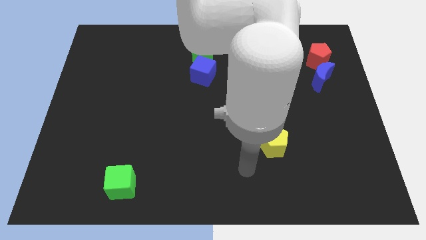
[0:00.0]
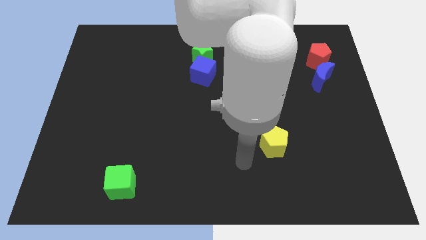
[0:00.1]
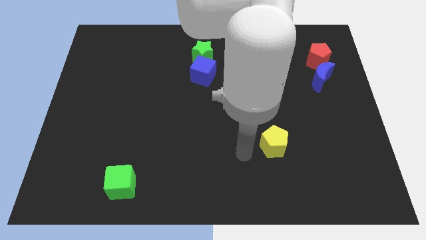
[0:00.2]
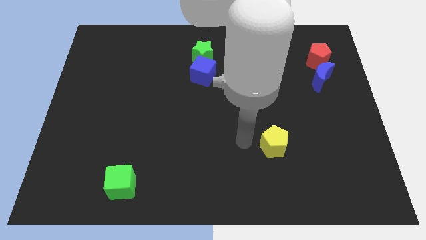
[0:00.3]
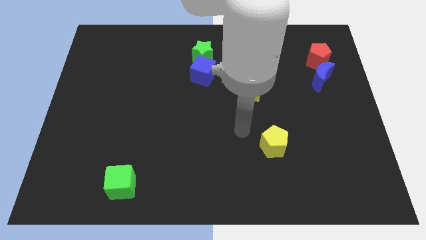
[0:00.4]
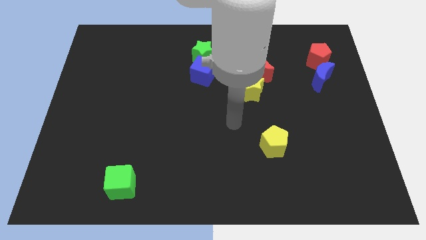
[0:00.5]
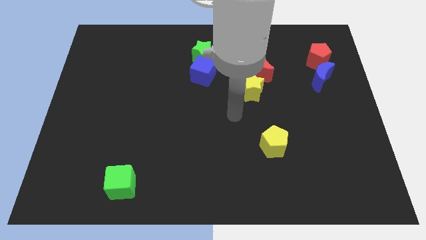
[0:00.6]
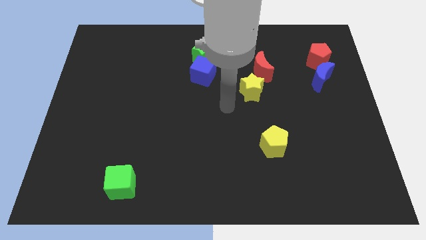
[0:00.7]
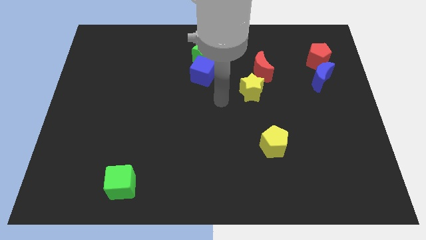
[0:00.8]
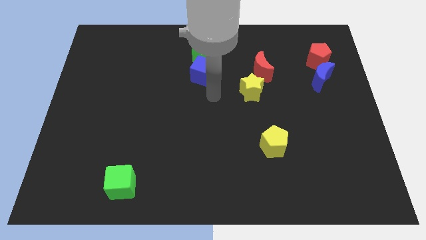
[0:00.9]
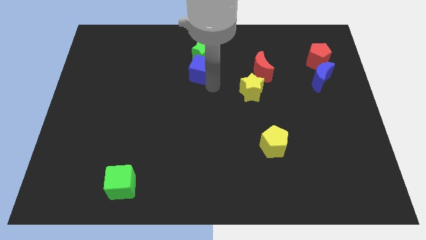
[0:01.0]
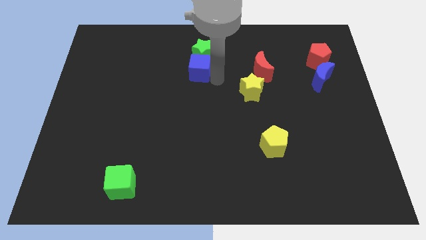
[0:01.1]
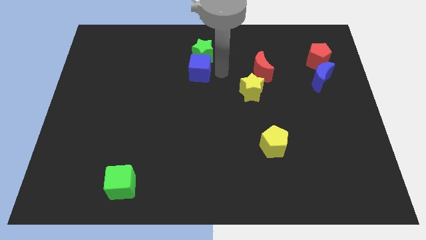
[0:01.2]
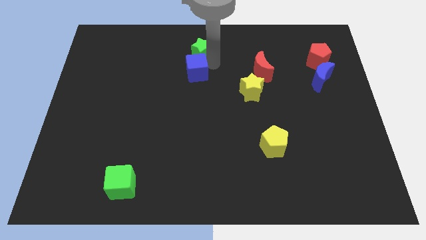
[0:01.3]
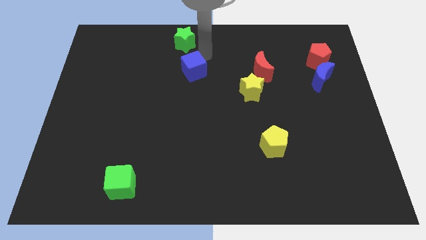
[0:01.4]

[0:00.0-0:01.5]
pull the blue cube apart from the green star

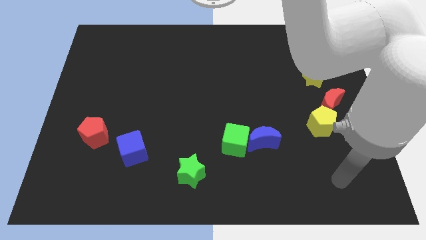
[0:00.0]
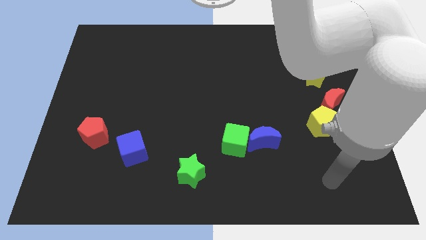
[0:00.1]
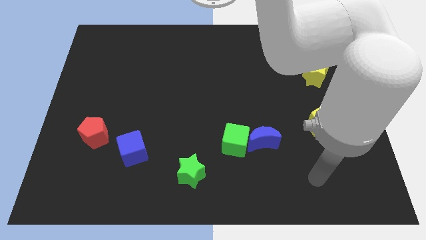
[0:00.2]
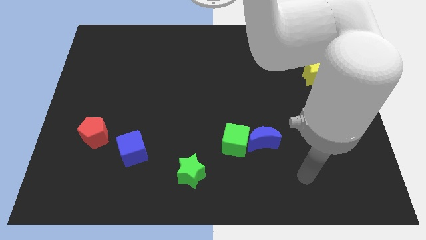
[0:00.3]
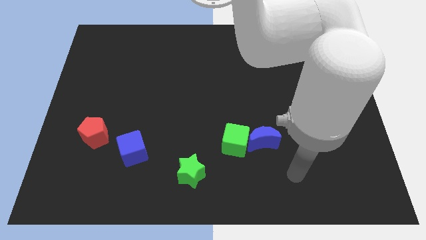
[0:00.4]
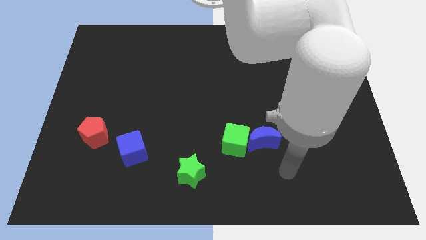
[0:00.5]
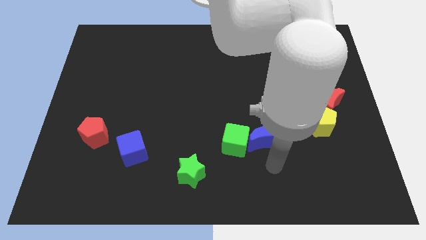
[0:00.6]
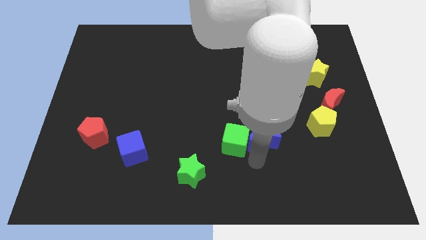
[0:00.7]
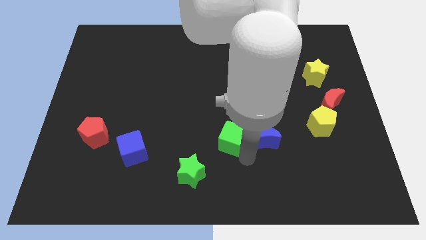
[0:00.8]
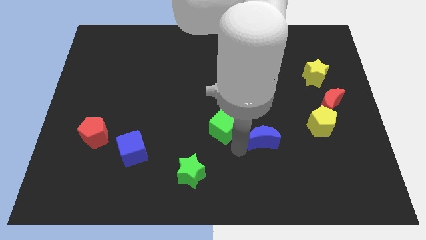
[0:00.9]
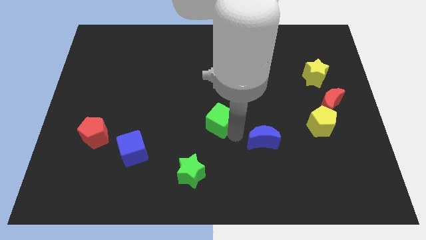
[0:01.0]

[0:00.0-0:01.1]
pull the blue moon apart from the green cube

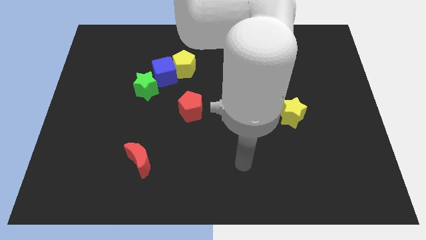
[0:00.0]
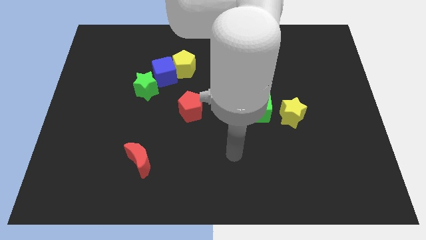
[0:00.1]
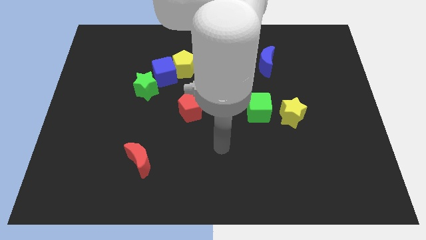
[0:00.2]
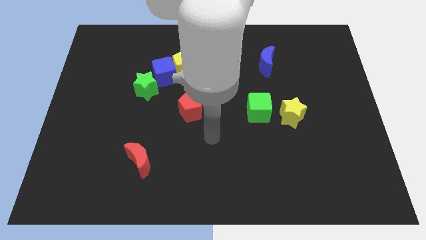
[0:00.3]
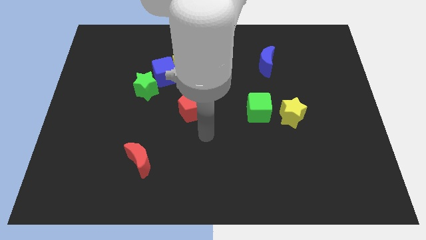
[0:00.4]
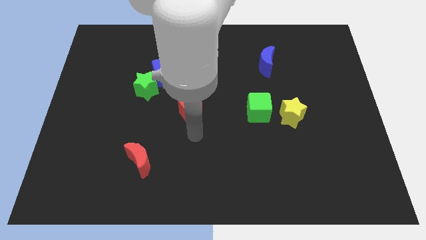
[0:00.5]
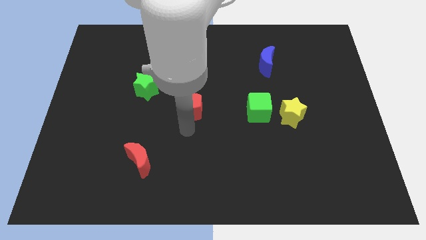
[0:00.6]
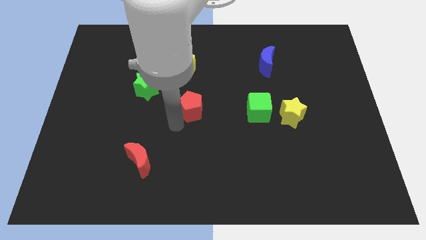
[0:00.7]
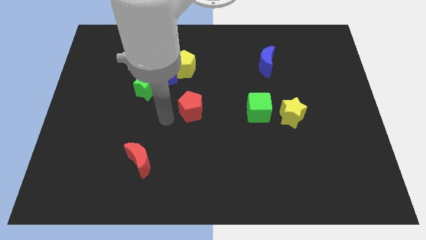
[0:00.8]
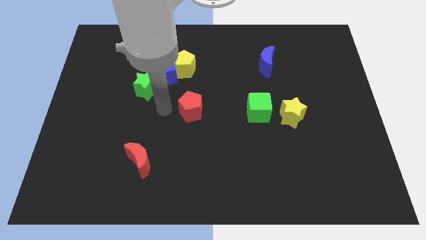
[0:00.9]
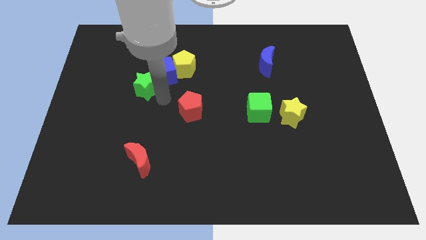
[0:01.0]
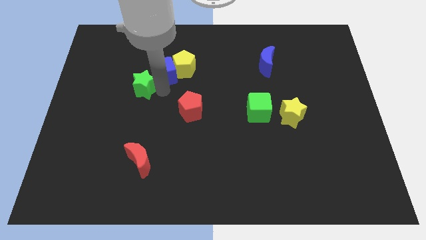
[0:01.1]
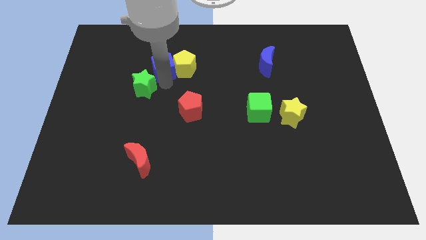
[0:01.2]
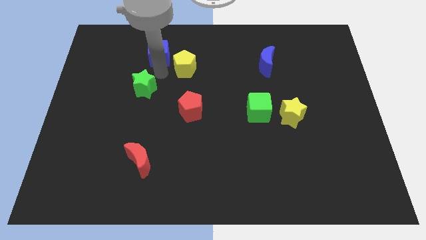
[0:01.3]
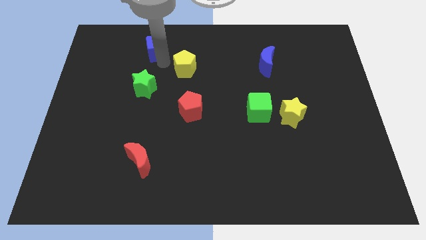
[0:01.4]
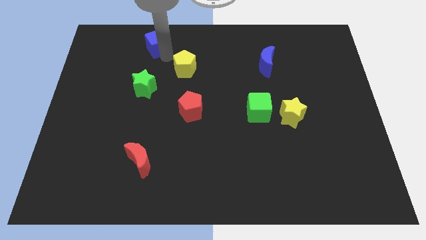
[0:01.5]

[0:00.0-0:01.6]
separate the yellow pentagon from the blue cube

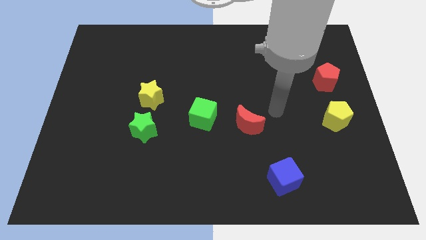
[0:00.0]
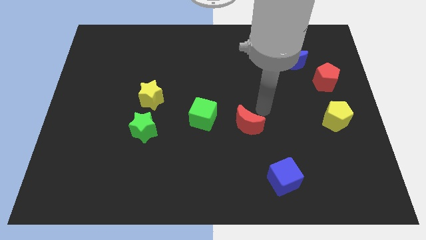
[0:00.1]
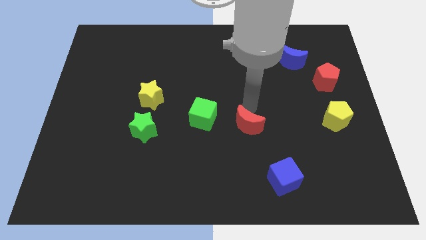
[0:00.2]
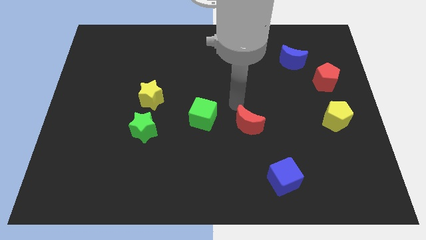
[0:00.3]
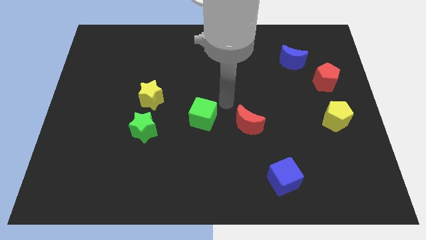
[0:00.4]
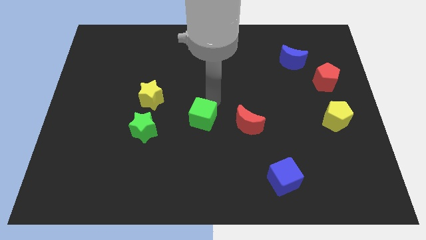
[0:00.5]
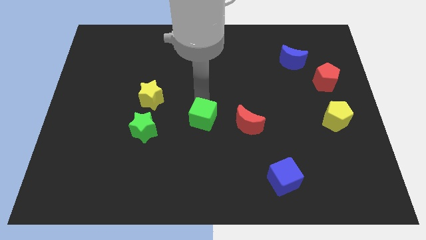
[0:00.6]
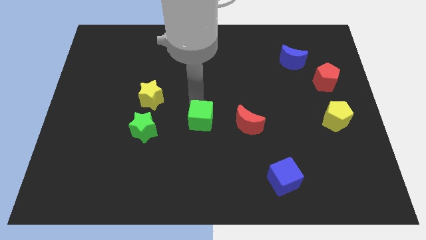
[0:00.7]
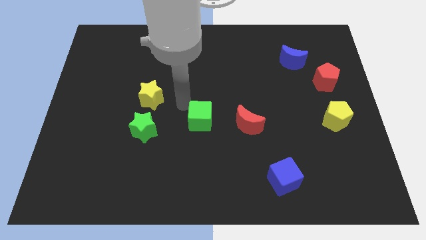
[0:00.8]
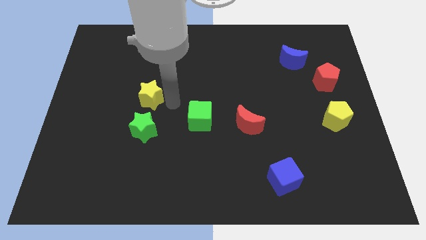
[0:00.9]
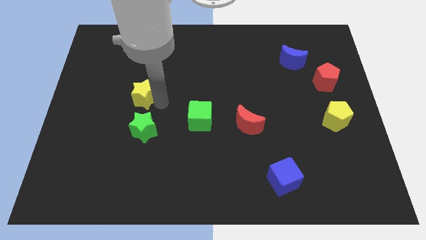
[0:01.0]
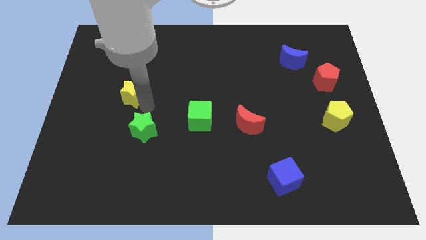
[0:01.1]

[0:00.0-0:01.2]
move the green star away from the yellow star

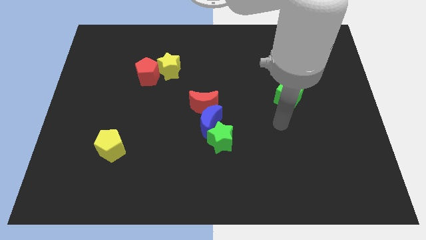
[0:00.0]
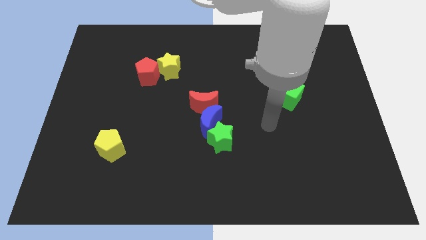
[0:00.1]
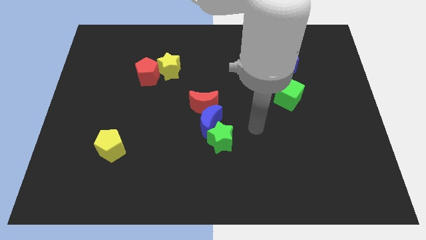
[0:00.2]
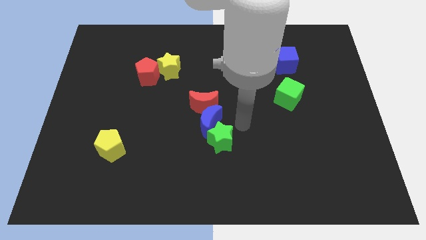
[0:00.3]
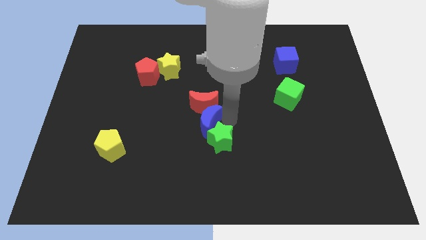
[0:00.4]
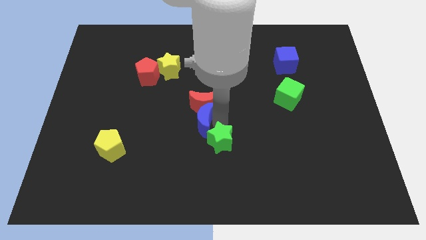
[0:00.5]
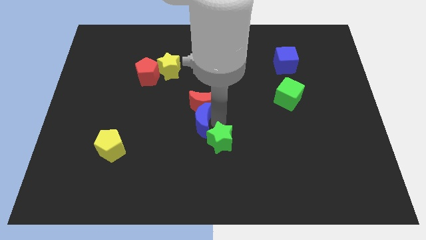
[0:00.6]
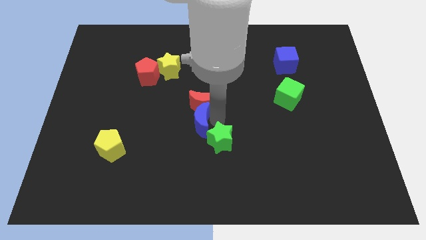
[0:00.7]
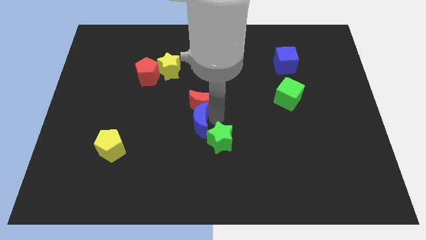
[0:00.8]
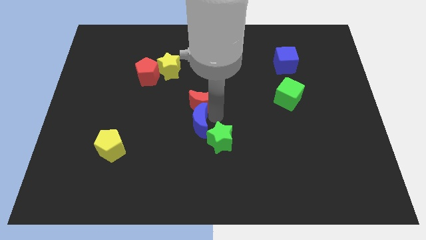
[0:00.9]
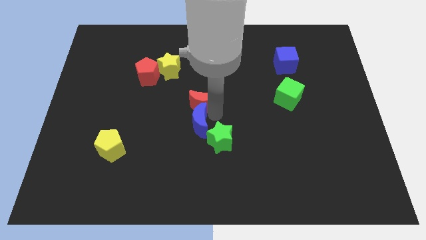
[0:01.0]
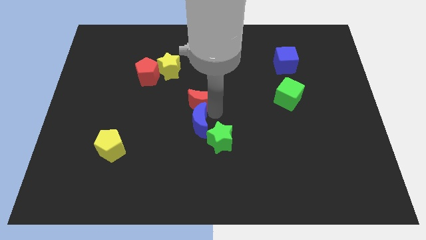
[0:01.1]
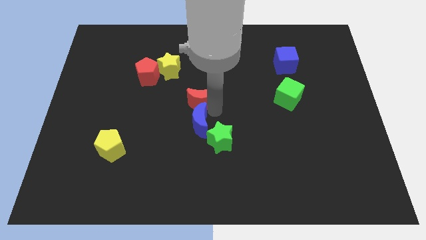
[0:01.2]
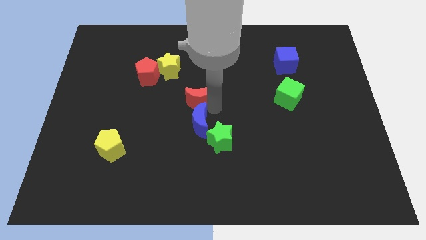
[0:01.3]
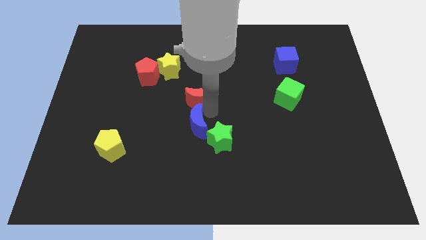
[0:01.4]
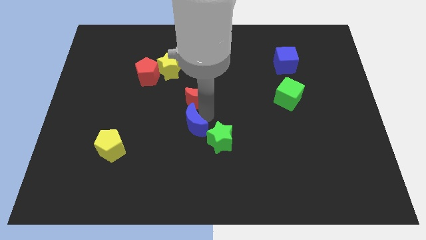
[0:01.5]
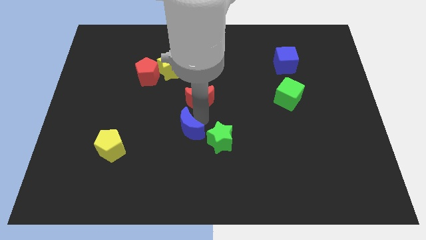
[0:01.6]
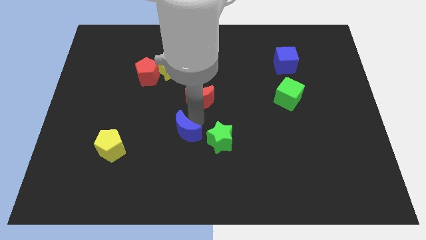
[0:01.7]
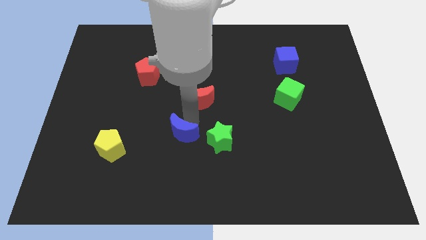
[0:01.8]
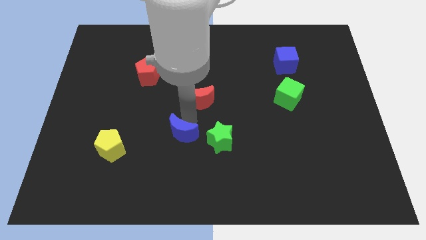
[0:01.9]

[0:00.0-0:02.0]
move the red moon away from the blue moon

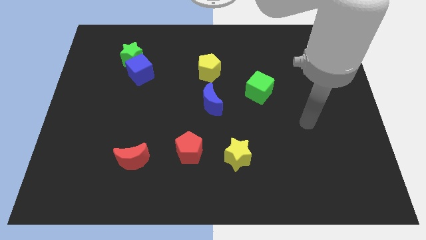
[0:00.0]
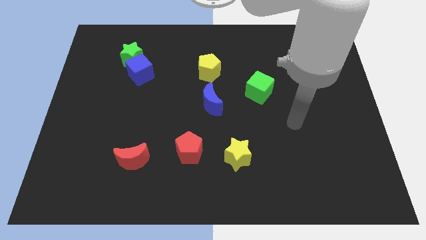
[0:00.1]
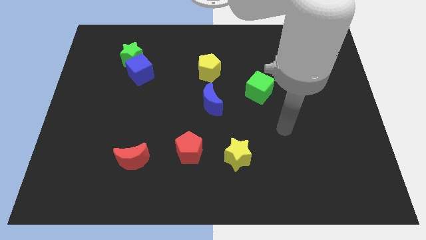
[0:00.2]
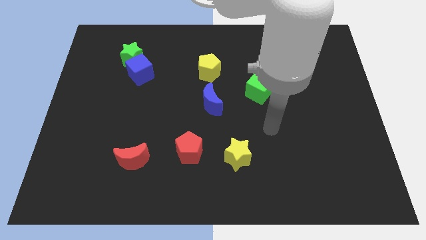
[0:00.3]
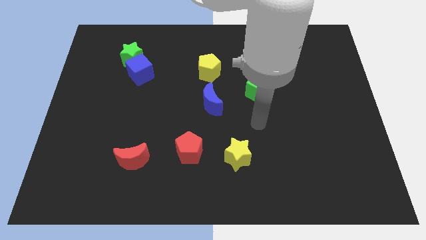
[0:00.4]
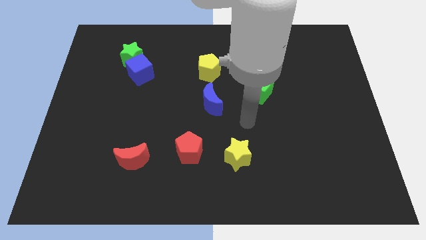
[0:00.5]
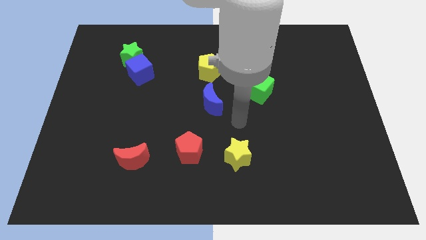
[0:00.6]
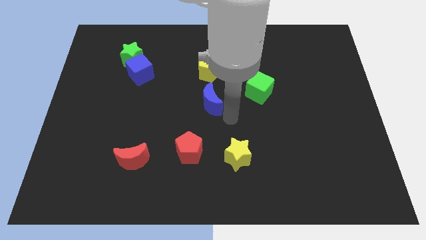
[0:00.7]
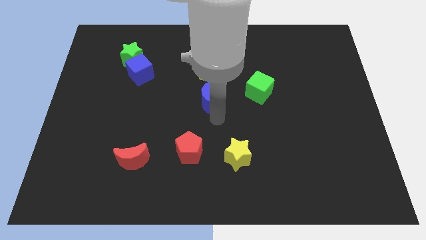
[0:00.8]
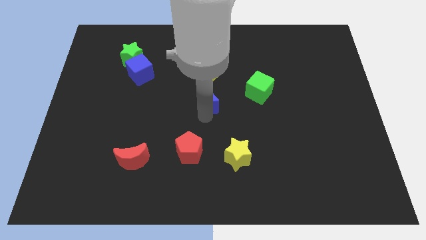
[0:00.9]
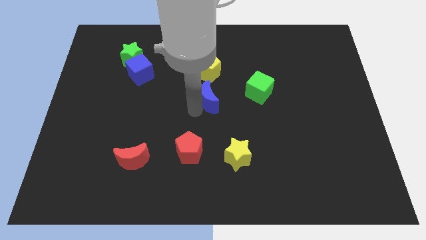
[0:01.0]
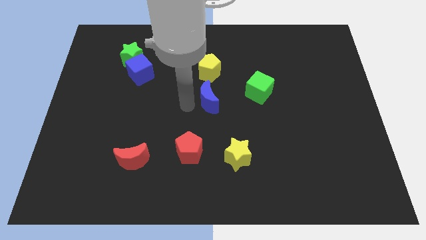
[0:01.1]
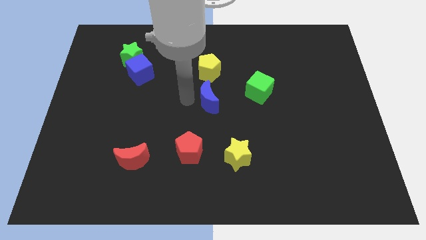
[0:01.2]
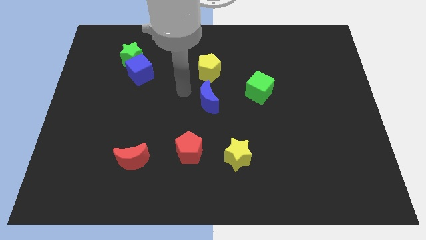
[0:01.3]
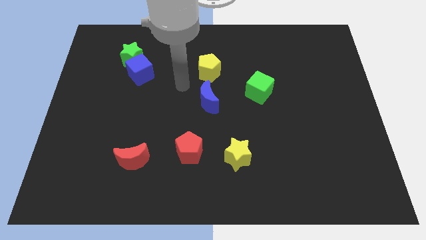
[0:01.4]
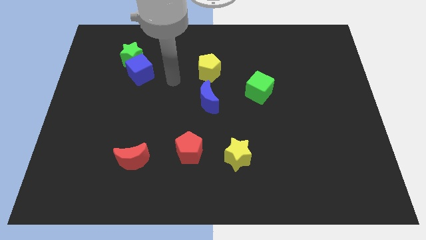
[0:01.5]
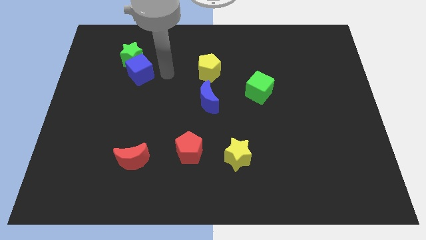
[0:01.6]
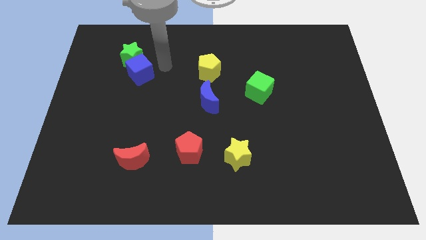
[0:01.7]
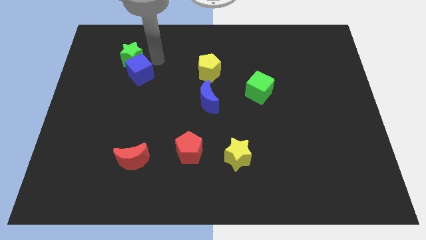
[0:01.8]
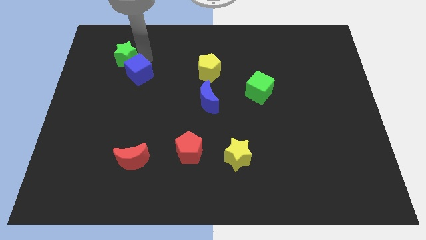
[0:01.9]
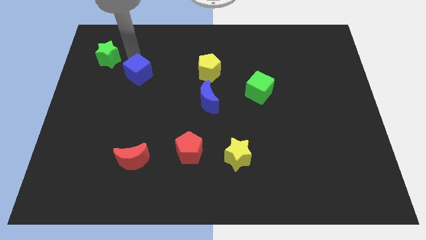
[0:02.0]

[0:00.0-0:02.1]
separate the blue cube from the green star
